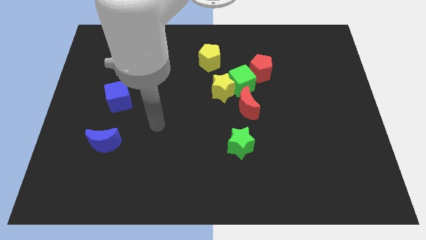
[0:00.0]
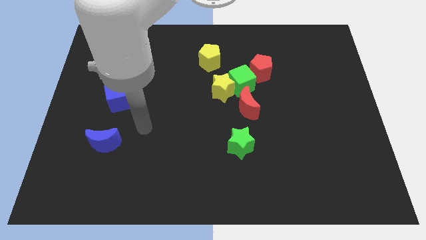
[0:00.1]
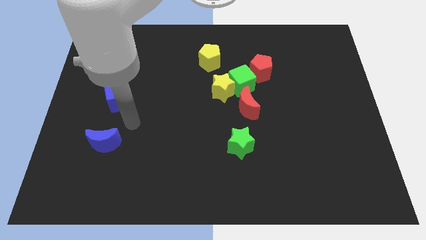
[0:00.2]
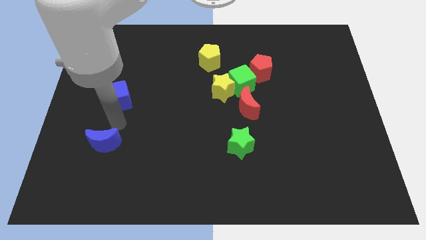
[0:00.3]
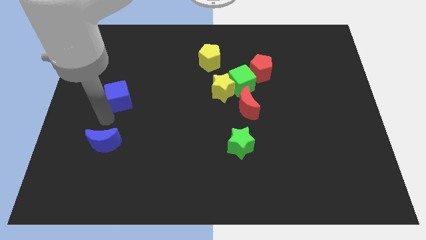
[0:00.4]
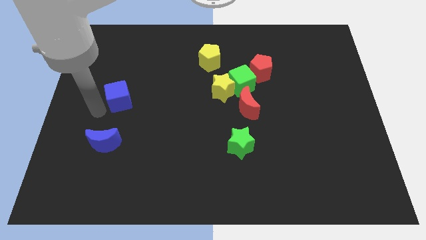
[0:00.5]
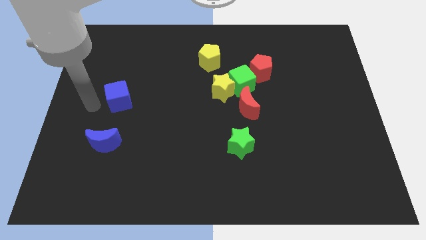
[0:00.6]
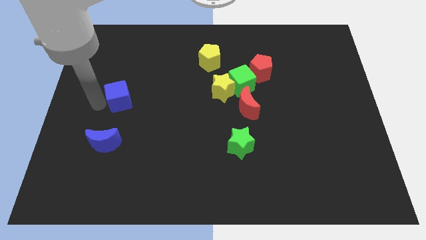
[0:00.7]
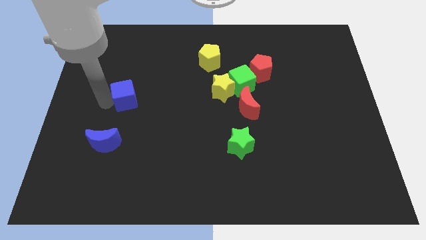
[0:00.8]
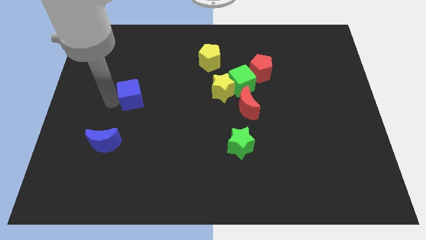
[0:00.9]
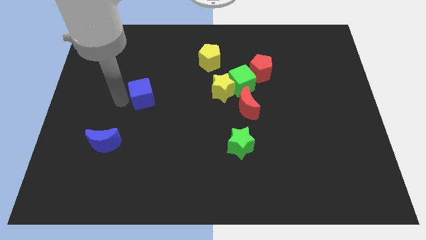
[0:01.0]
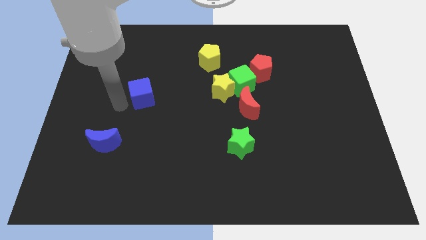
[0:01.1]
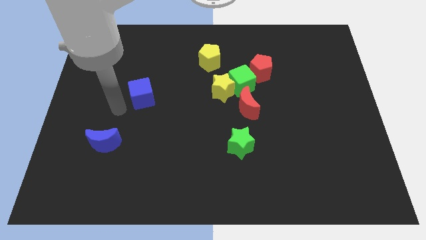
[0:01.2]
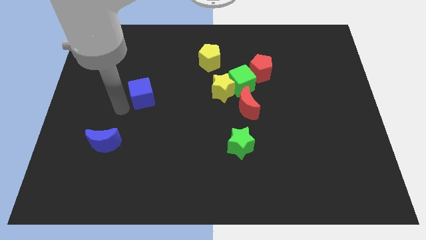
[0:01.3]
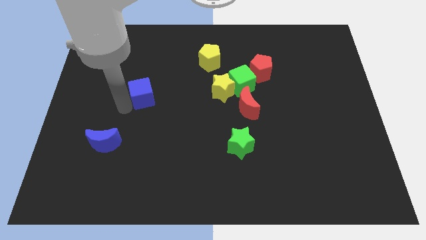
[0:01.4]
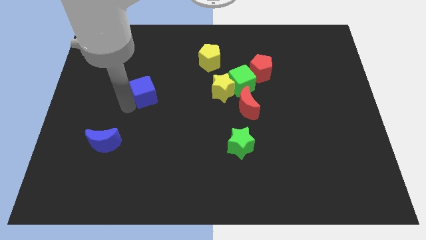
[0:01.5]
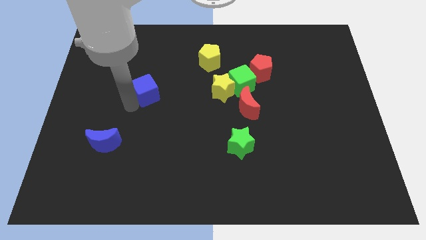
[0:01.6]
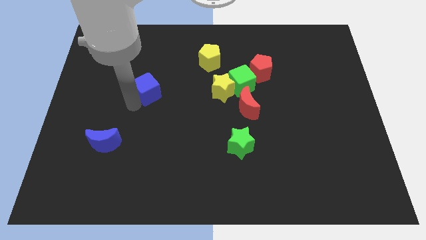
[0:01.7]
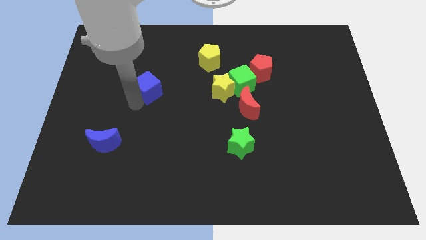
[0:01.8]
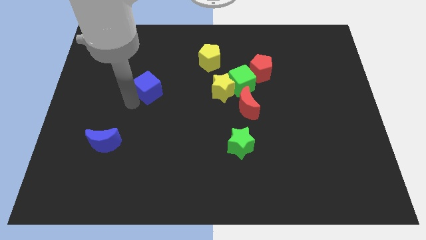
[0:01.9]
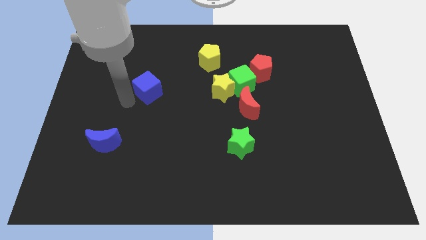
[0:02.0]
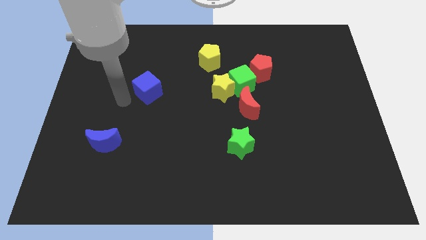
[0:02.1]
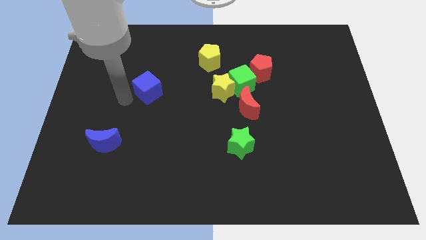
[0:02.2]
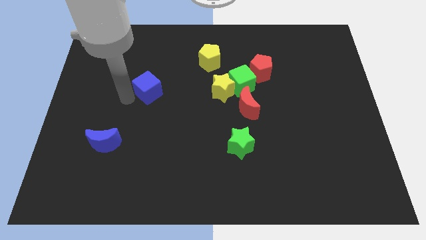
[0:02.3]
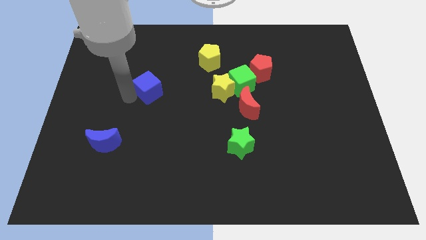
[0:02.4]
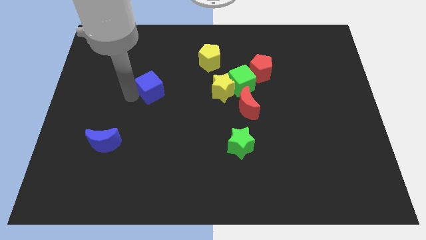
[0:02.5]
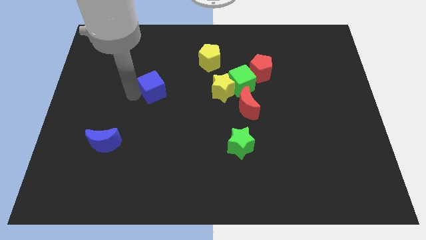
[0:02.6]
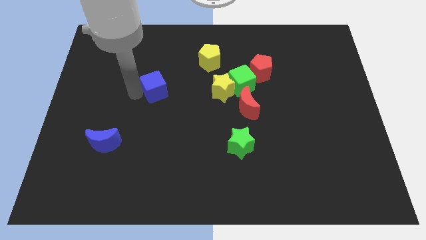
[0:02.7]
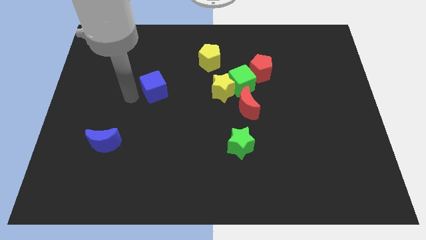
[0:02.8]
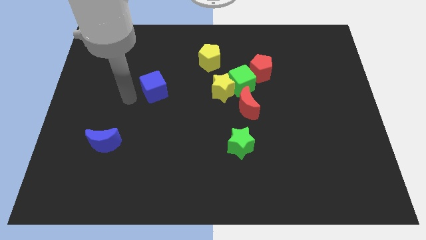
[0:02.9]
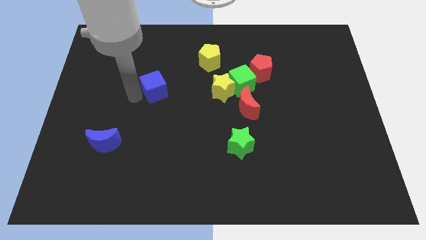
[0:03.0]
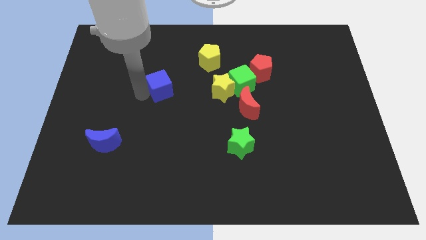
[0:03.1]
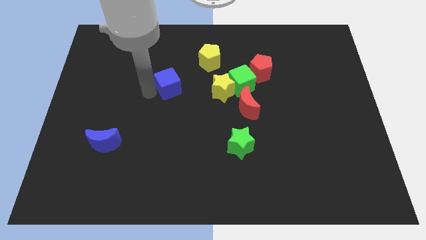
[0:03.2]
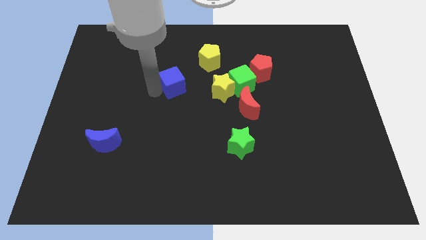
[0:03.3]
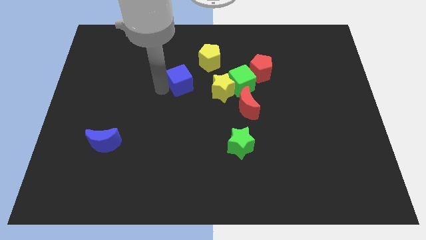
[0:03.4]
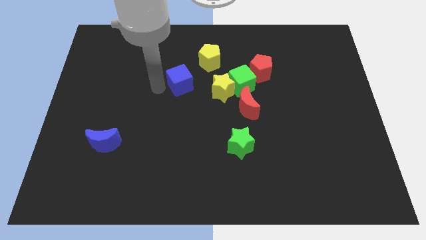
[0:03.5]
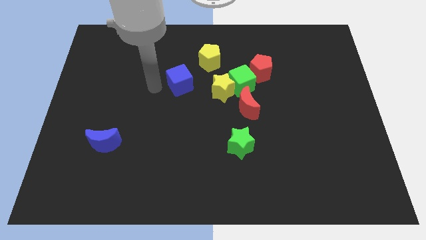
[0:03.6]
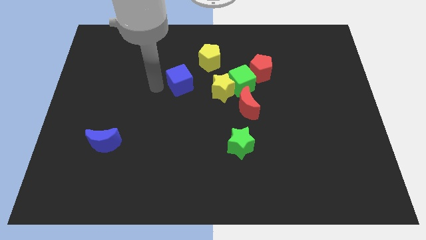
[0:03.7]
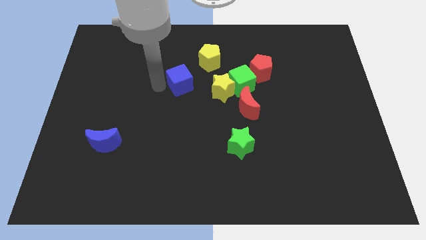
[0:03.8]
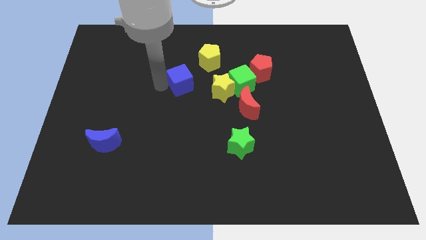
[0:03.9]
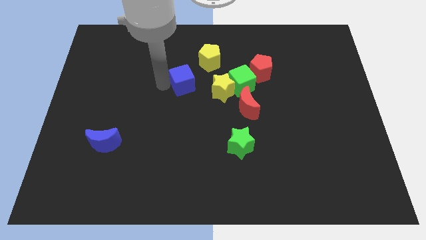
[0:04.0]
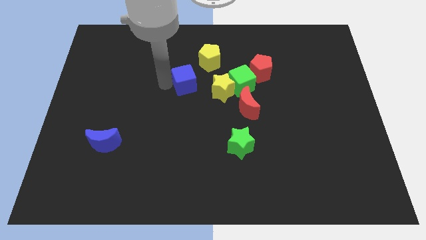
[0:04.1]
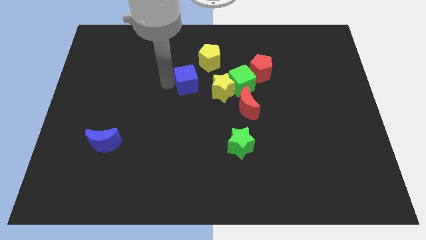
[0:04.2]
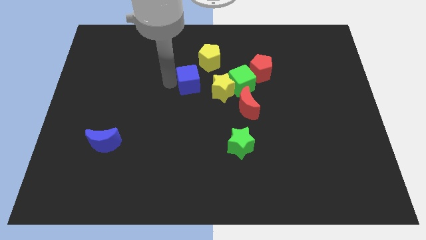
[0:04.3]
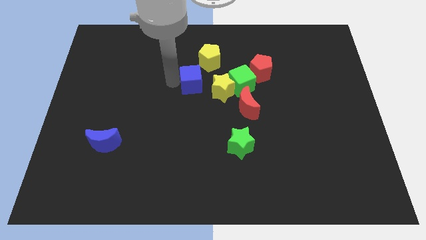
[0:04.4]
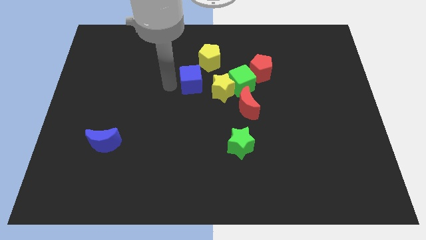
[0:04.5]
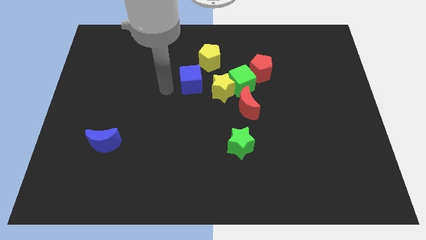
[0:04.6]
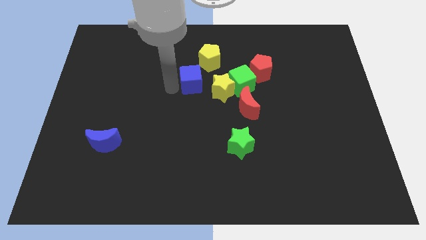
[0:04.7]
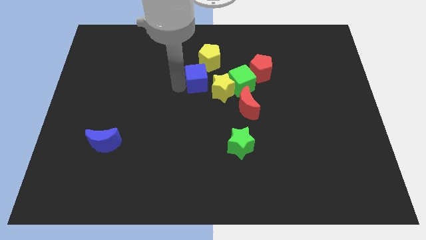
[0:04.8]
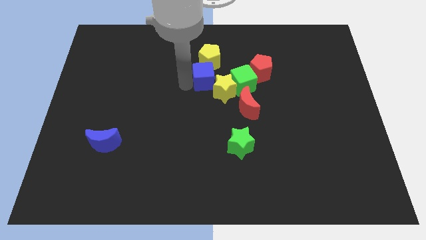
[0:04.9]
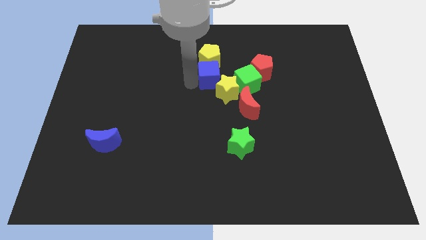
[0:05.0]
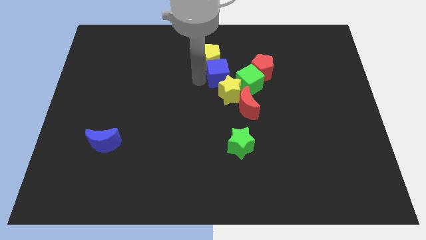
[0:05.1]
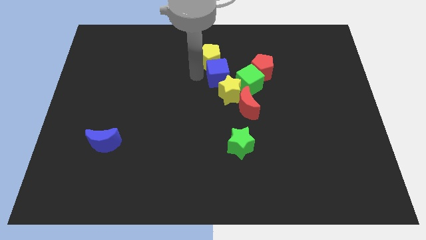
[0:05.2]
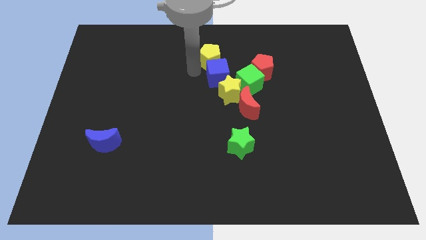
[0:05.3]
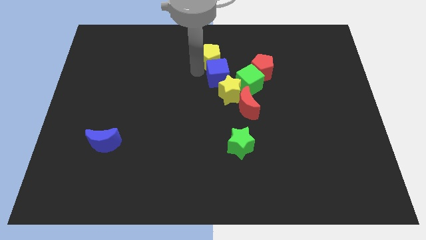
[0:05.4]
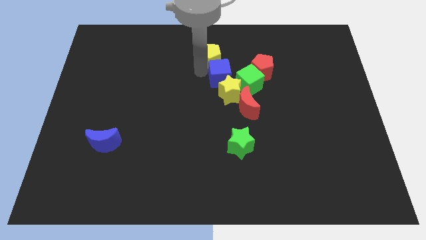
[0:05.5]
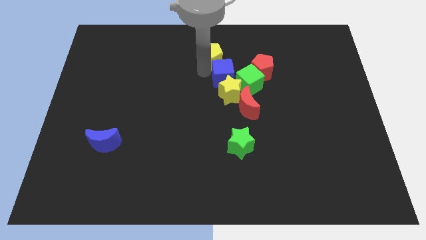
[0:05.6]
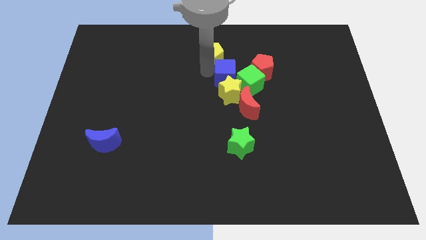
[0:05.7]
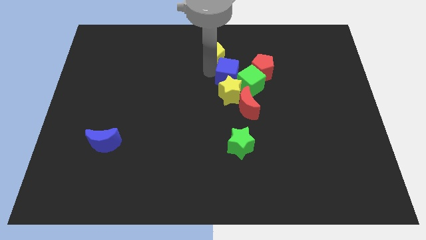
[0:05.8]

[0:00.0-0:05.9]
push the blue cube towards the green cube

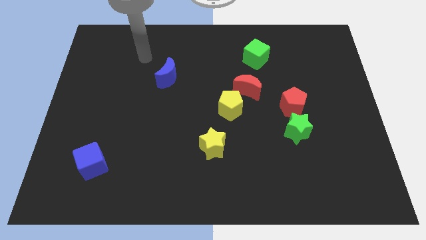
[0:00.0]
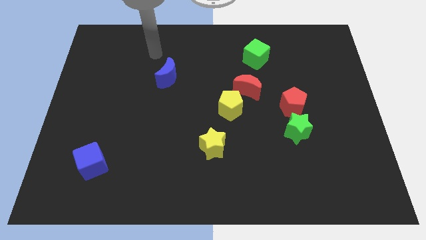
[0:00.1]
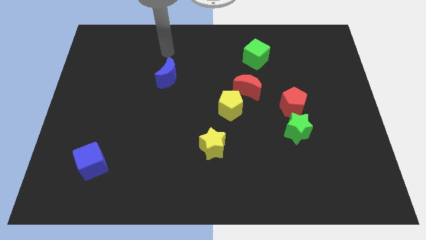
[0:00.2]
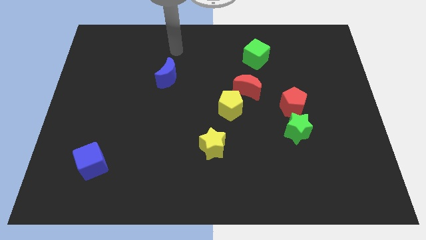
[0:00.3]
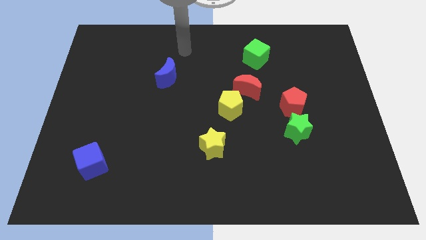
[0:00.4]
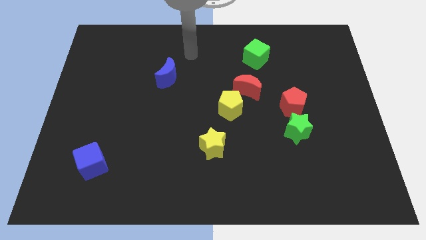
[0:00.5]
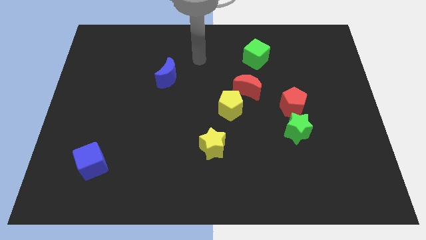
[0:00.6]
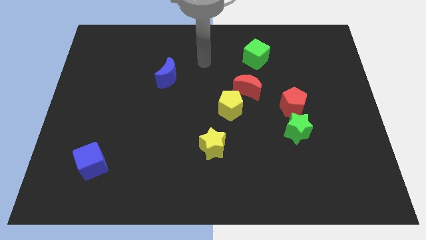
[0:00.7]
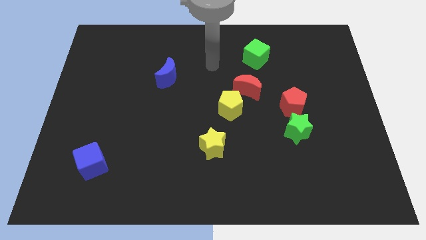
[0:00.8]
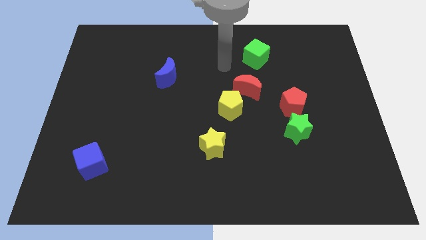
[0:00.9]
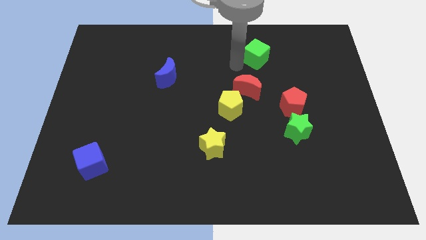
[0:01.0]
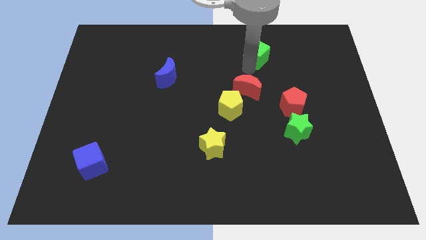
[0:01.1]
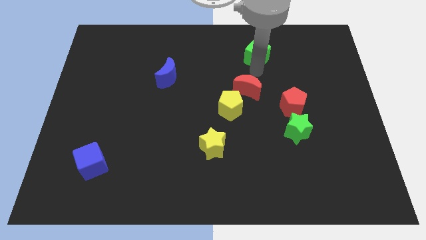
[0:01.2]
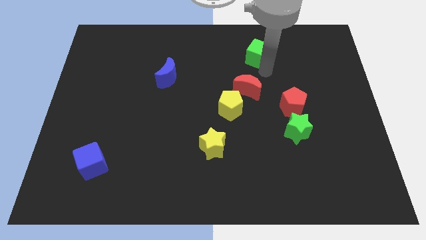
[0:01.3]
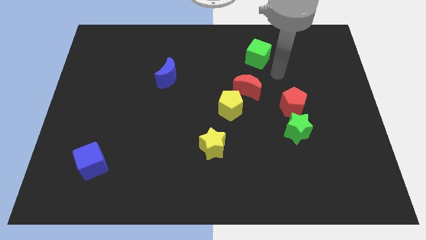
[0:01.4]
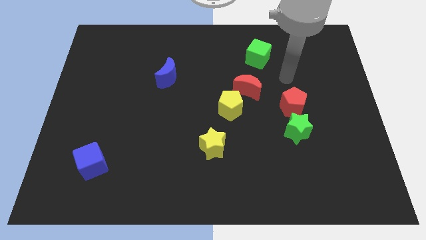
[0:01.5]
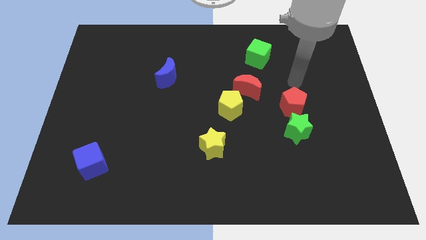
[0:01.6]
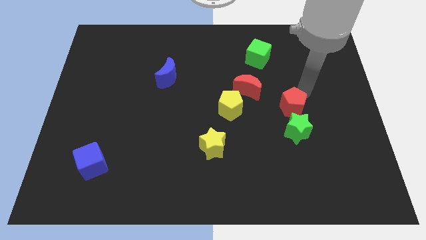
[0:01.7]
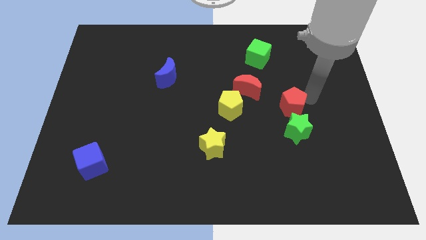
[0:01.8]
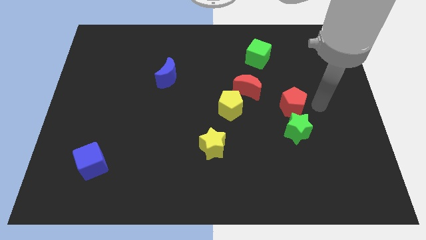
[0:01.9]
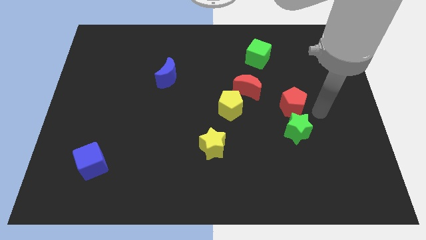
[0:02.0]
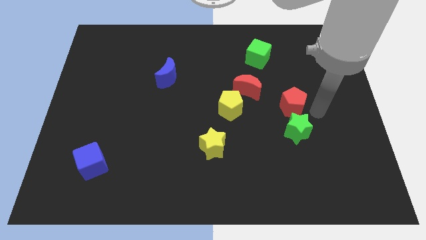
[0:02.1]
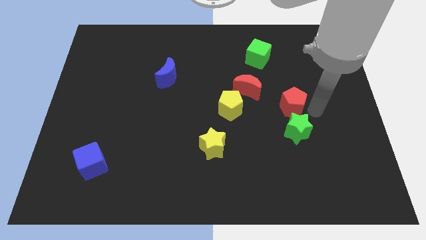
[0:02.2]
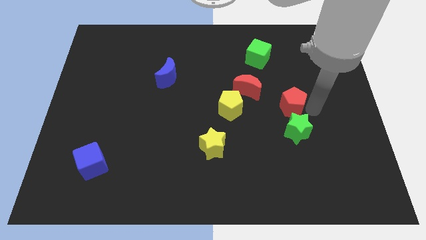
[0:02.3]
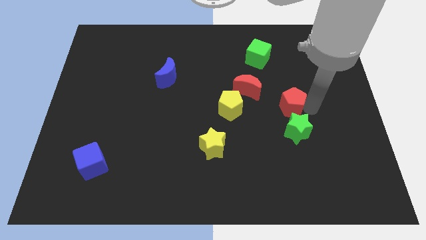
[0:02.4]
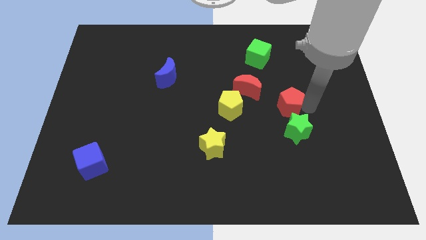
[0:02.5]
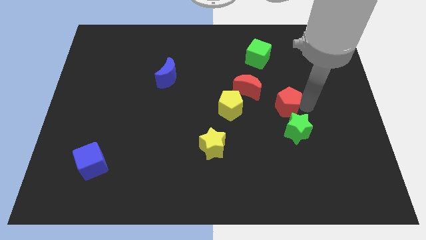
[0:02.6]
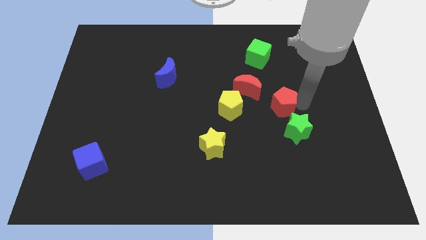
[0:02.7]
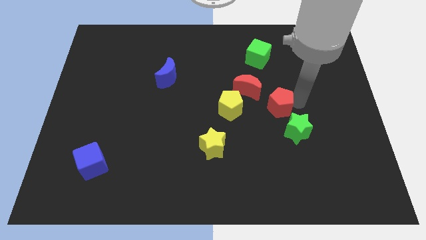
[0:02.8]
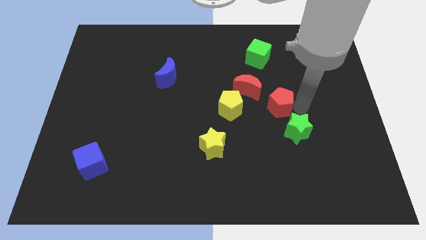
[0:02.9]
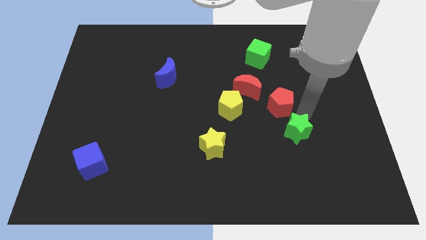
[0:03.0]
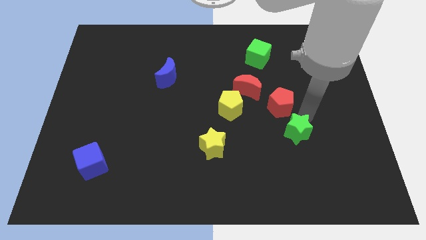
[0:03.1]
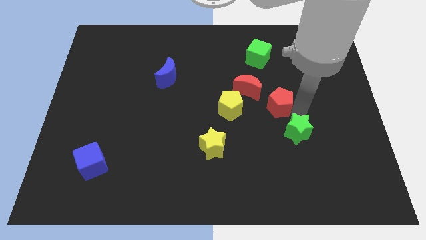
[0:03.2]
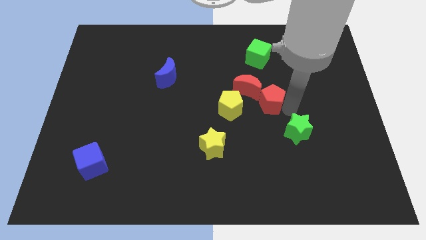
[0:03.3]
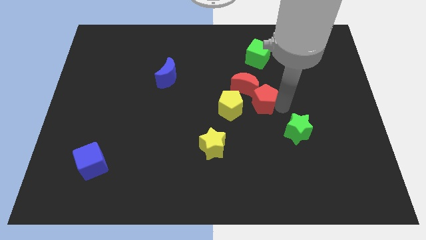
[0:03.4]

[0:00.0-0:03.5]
put the red pentagon next to the red moon
